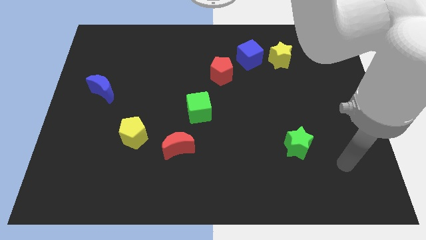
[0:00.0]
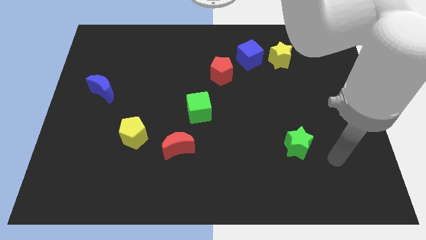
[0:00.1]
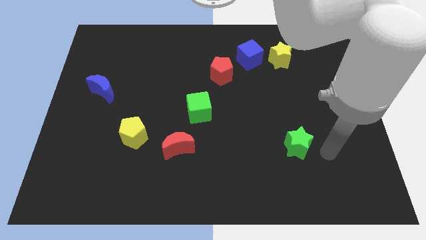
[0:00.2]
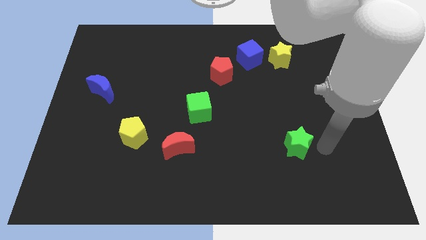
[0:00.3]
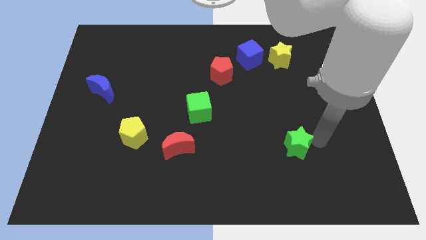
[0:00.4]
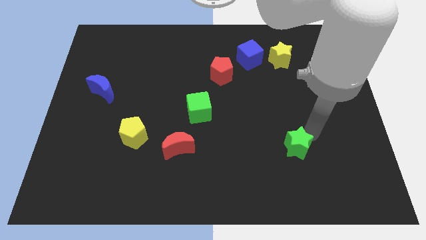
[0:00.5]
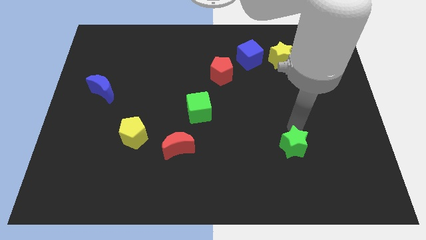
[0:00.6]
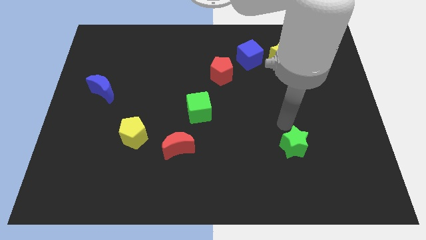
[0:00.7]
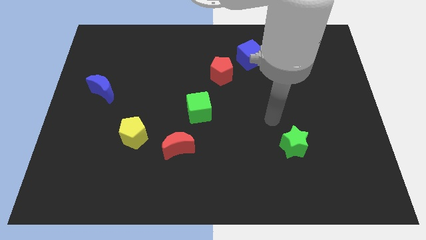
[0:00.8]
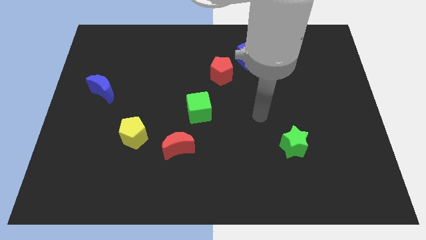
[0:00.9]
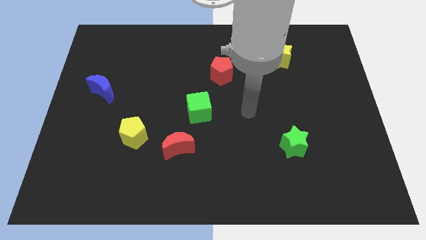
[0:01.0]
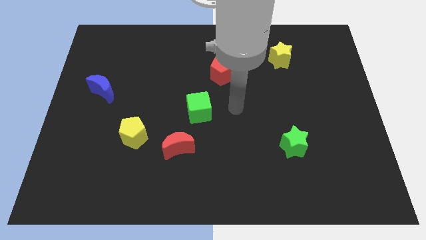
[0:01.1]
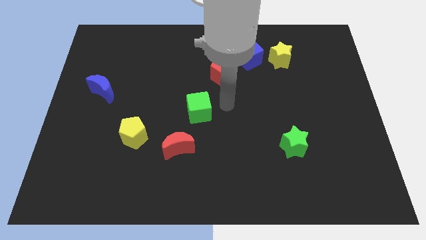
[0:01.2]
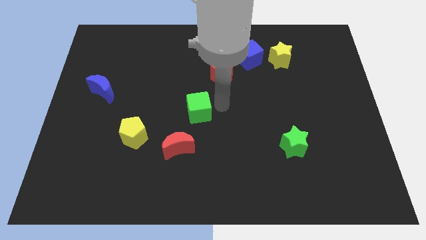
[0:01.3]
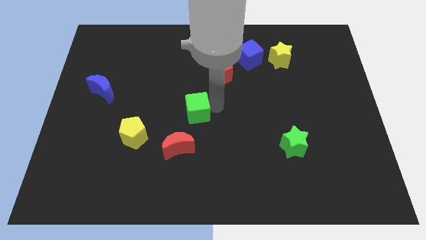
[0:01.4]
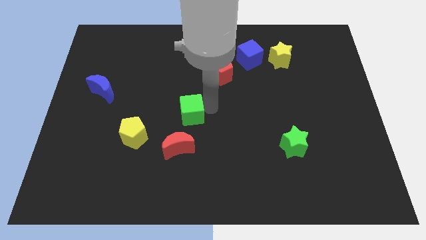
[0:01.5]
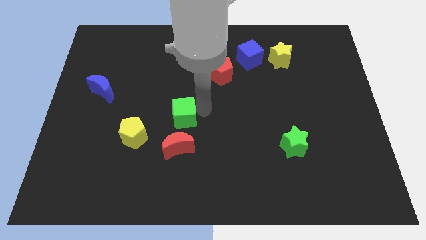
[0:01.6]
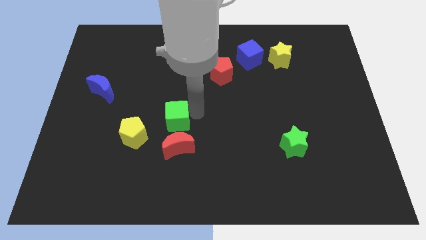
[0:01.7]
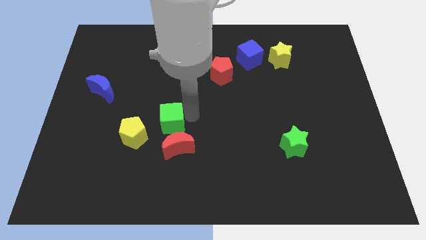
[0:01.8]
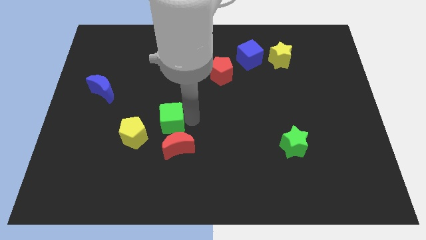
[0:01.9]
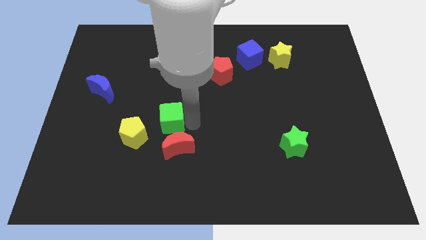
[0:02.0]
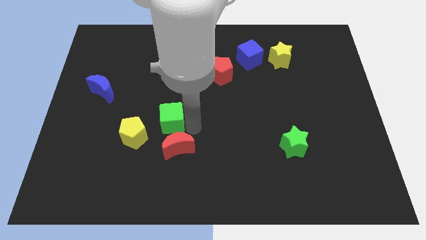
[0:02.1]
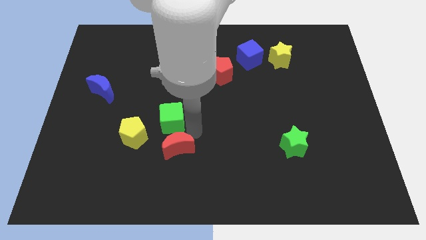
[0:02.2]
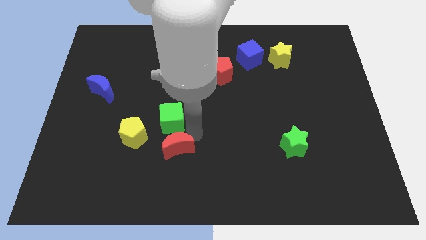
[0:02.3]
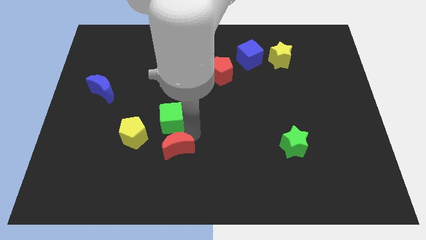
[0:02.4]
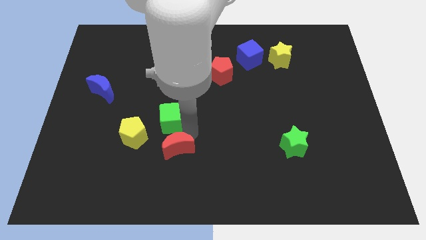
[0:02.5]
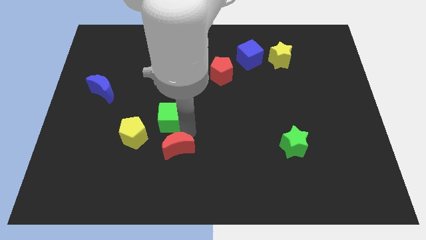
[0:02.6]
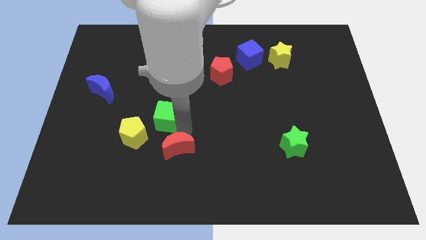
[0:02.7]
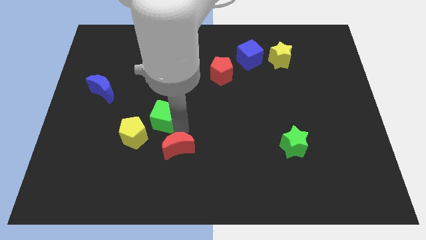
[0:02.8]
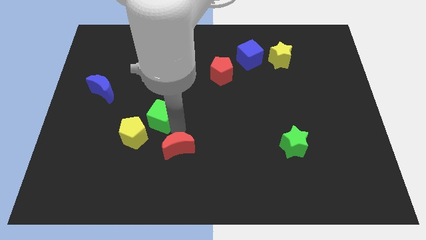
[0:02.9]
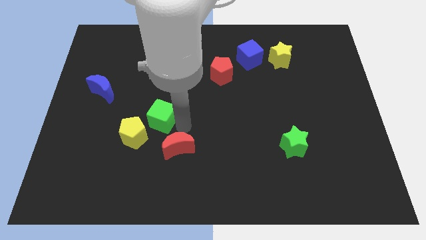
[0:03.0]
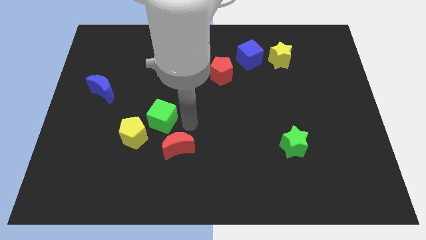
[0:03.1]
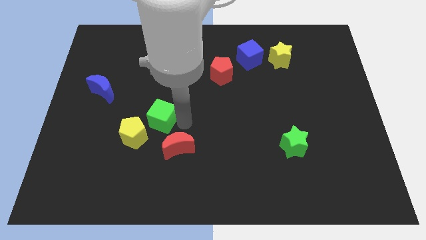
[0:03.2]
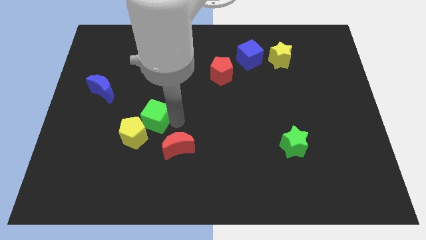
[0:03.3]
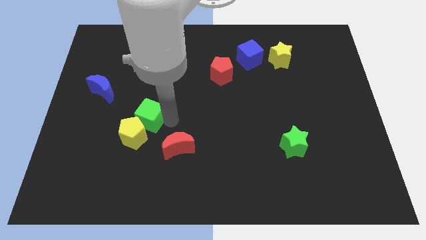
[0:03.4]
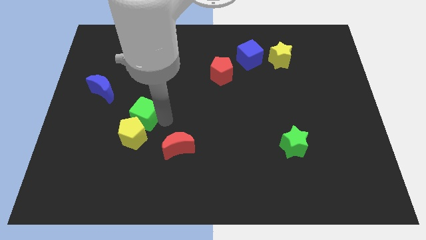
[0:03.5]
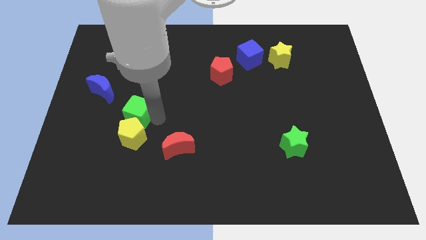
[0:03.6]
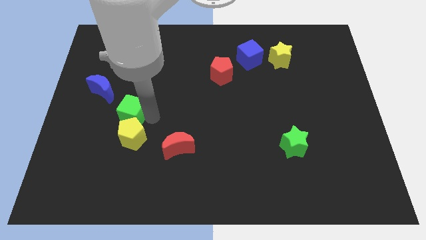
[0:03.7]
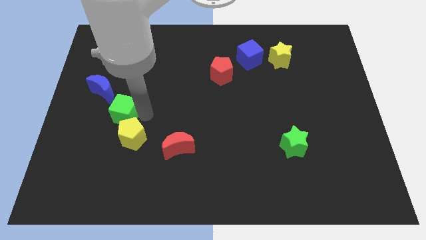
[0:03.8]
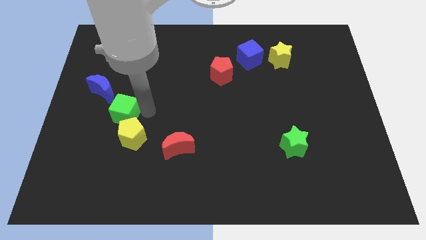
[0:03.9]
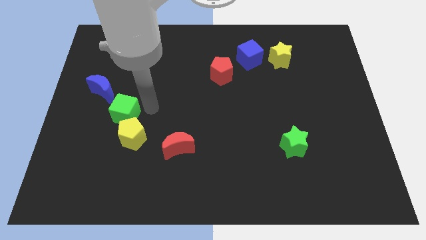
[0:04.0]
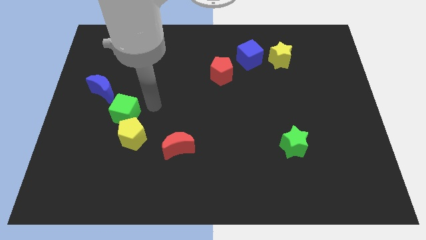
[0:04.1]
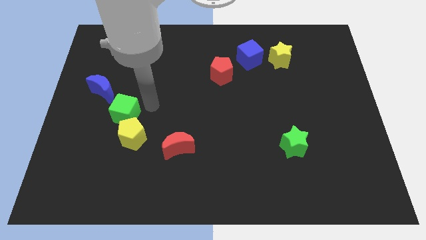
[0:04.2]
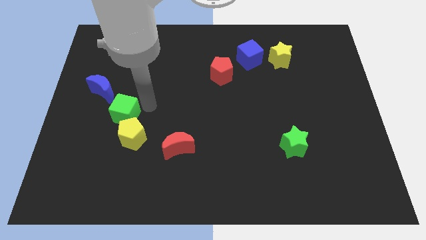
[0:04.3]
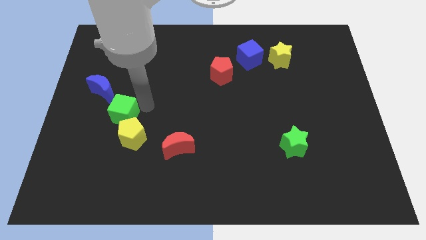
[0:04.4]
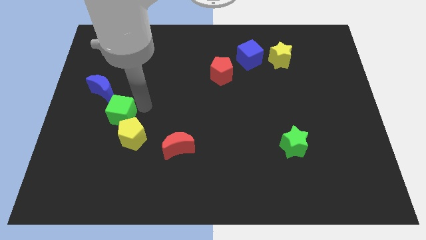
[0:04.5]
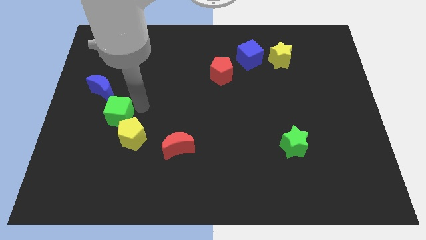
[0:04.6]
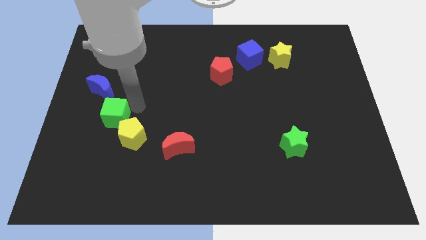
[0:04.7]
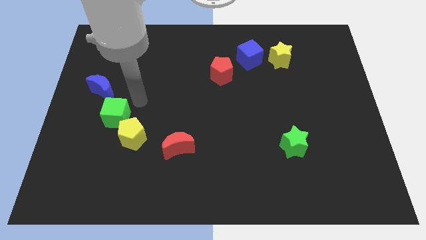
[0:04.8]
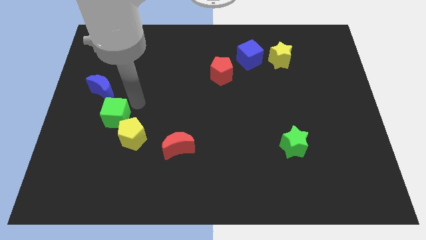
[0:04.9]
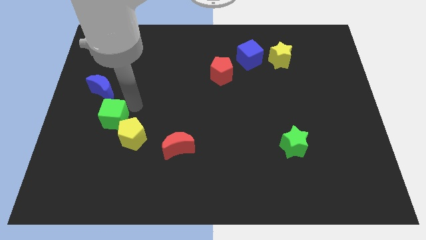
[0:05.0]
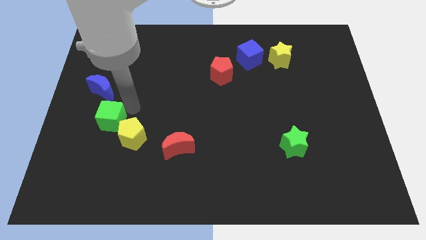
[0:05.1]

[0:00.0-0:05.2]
put the green cube to the left of the yellow pentagon

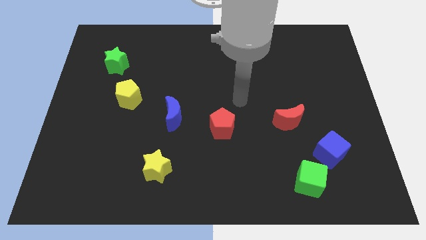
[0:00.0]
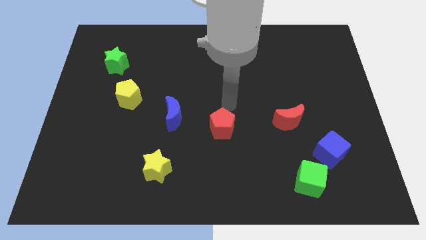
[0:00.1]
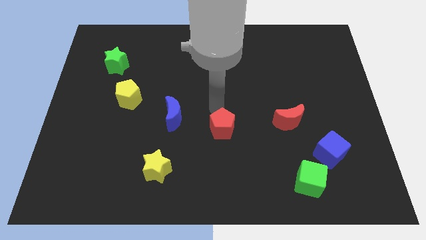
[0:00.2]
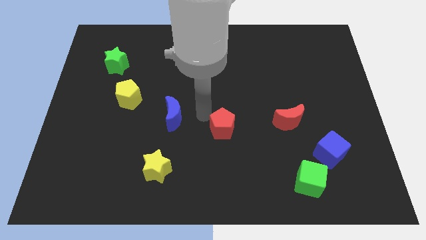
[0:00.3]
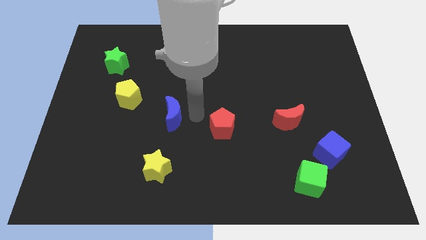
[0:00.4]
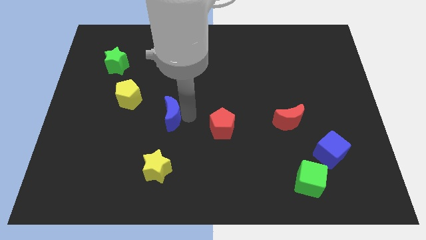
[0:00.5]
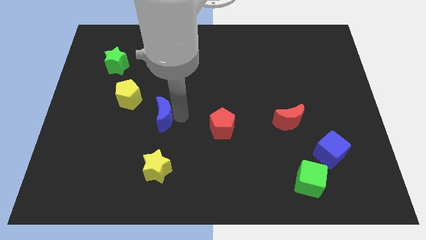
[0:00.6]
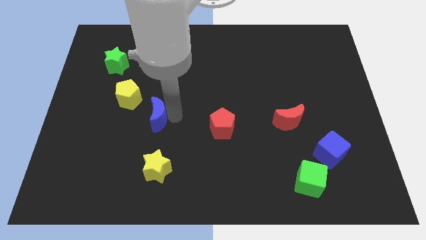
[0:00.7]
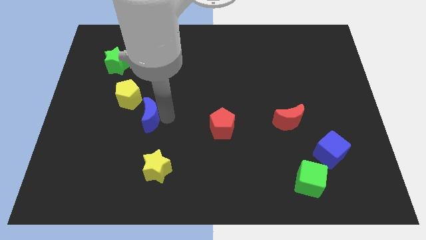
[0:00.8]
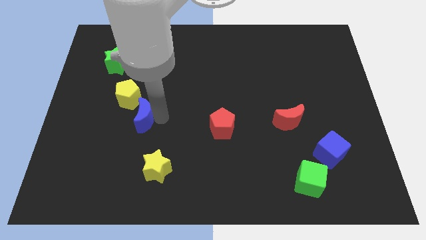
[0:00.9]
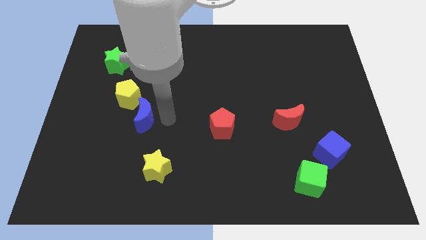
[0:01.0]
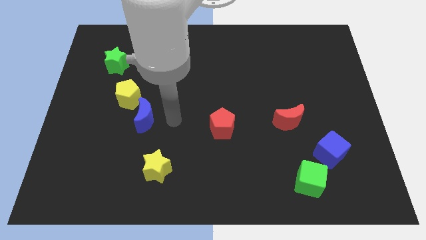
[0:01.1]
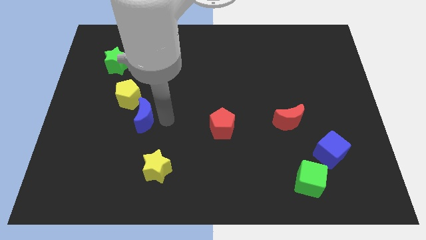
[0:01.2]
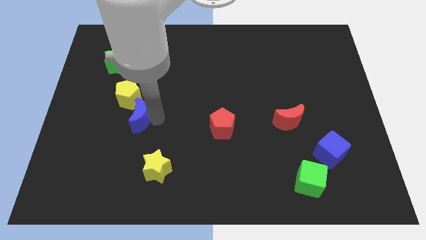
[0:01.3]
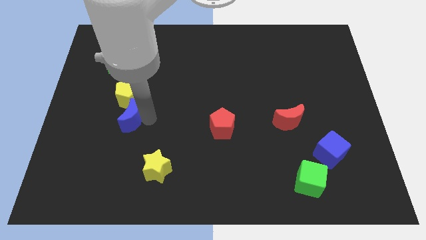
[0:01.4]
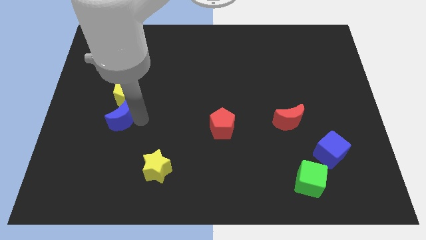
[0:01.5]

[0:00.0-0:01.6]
move the blue moon to the bottom left side of the yellow pentagon
